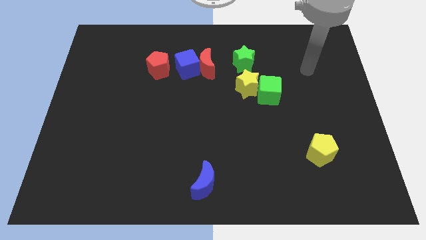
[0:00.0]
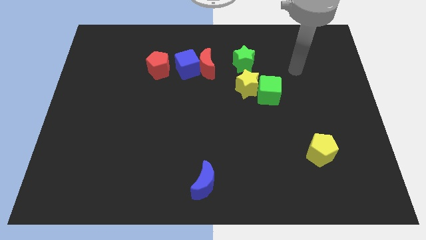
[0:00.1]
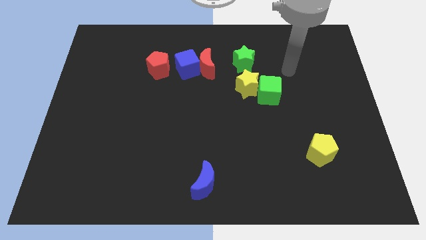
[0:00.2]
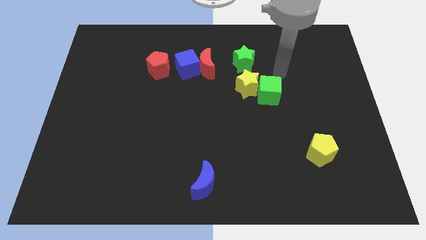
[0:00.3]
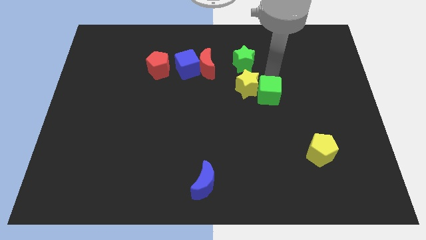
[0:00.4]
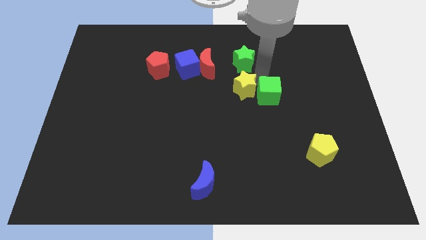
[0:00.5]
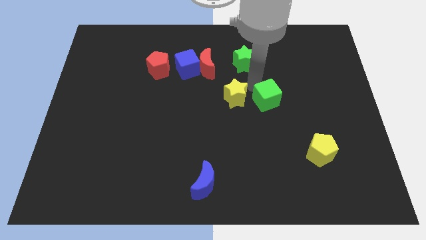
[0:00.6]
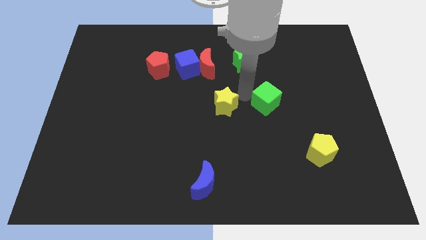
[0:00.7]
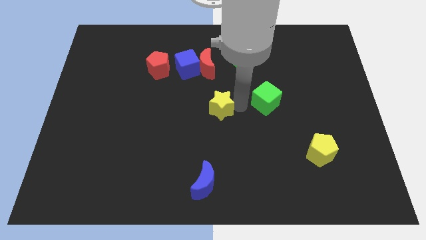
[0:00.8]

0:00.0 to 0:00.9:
pull the green cube apart from the yellow star

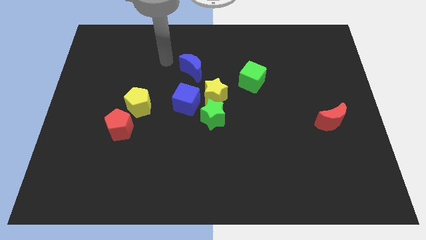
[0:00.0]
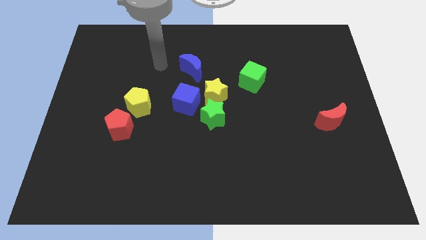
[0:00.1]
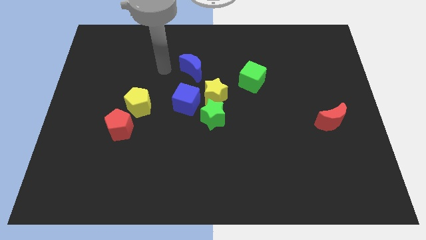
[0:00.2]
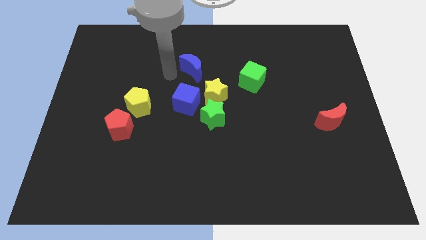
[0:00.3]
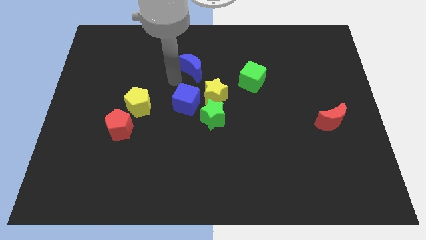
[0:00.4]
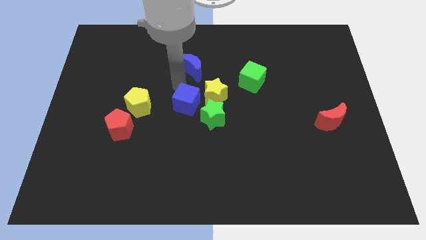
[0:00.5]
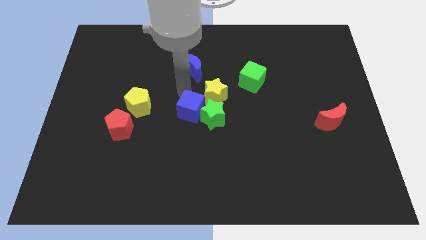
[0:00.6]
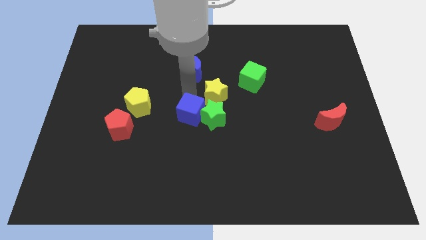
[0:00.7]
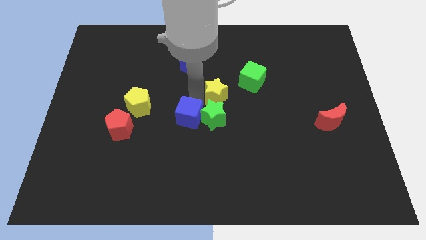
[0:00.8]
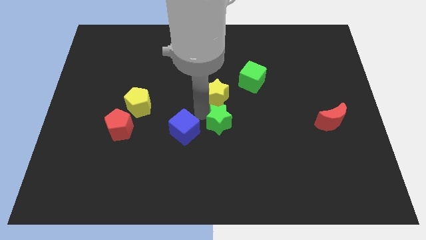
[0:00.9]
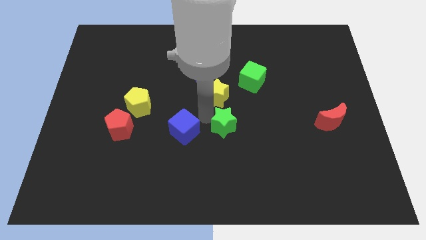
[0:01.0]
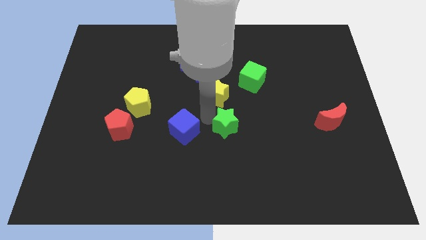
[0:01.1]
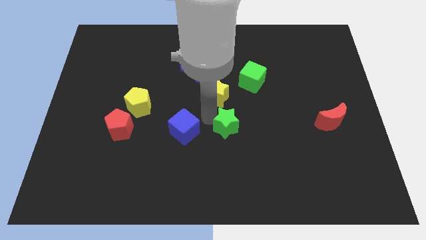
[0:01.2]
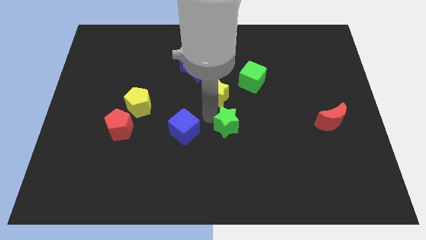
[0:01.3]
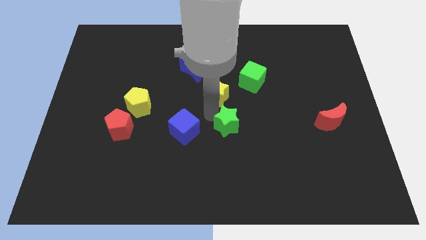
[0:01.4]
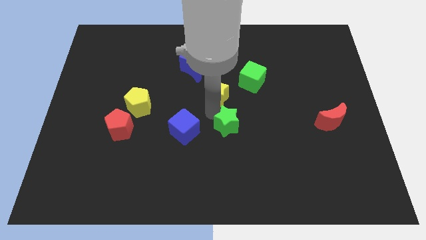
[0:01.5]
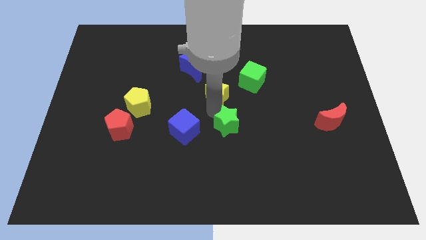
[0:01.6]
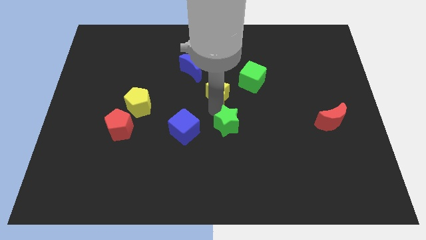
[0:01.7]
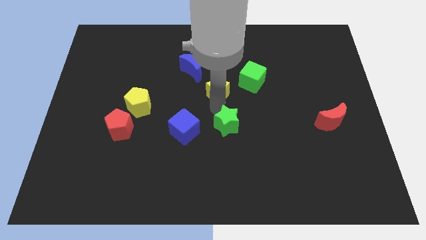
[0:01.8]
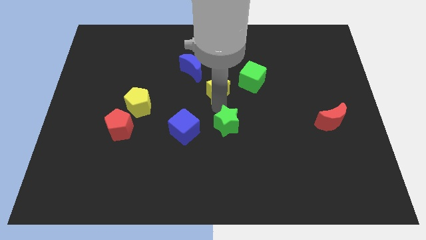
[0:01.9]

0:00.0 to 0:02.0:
move the yellow star away from the green star and blue cube

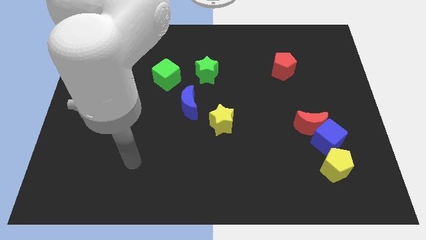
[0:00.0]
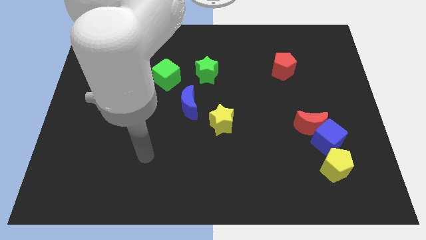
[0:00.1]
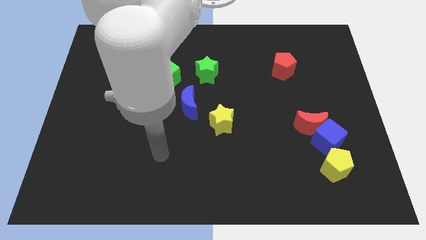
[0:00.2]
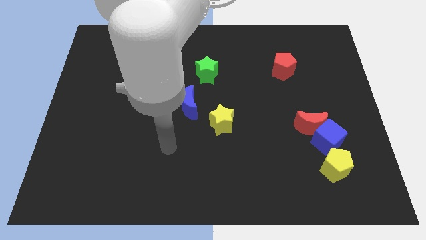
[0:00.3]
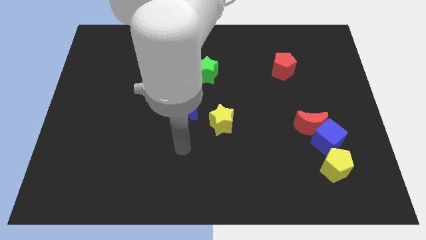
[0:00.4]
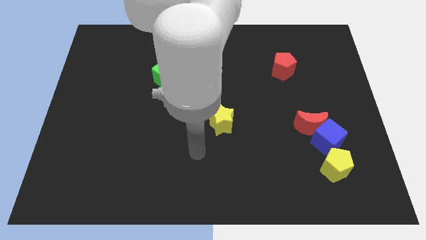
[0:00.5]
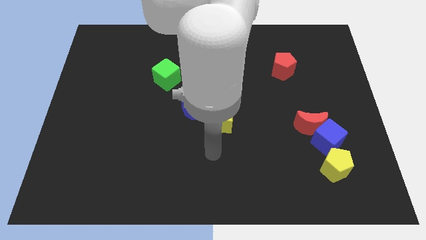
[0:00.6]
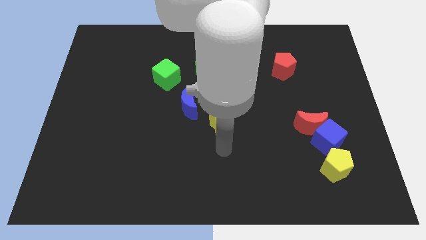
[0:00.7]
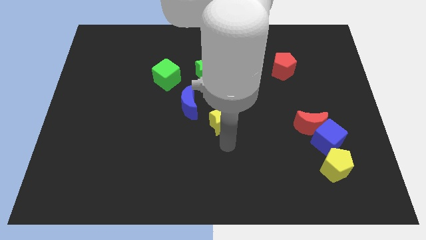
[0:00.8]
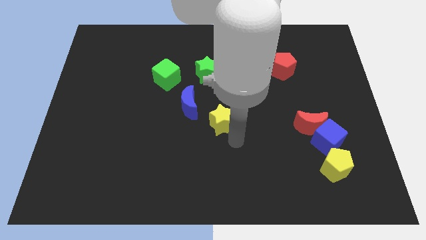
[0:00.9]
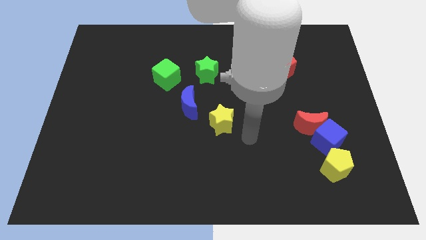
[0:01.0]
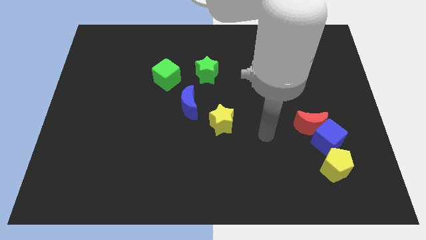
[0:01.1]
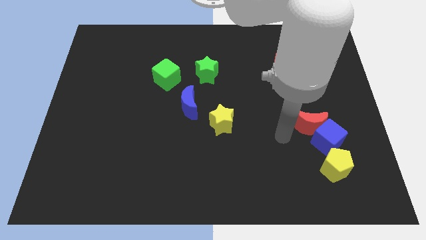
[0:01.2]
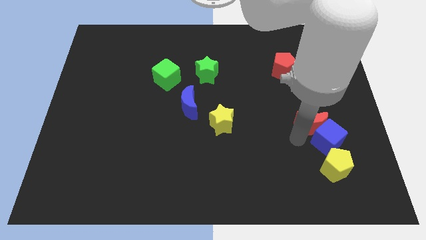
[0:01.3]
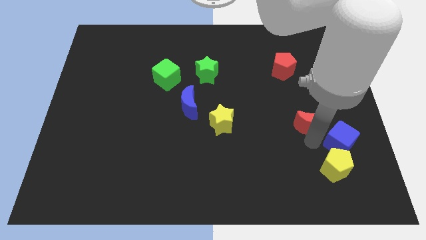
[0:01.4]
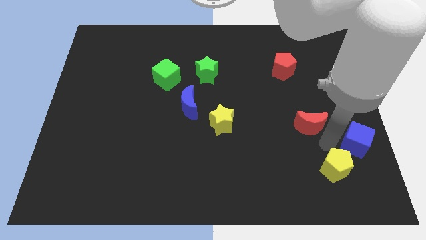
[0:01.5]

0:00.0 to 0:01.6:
separate the red moon from the blue cube

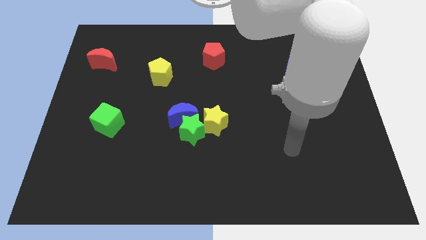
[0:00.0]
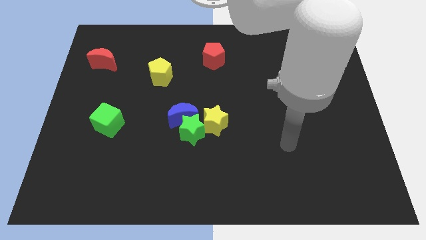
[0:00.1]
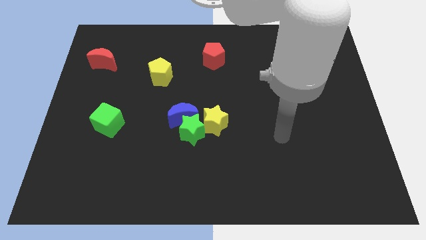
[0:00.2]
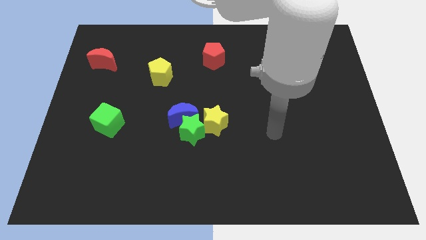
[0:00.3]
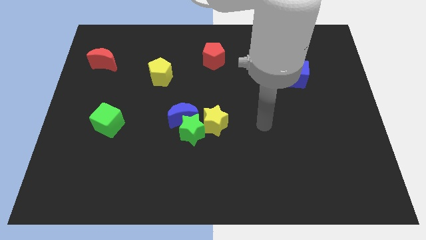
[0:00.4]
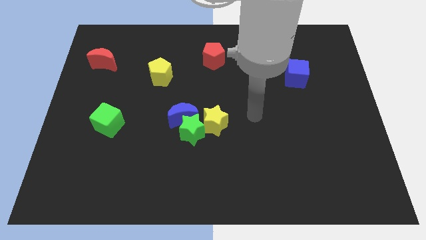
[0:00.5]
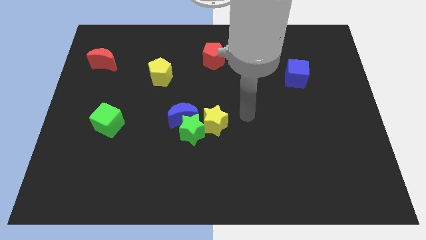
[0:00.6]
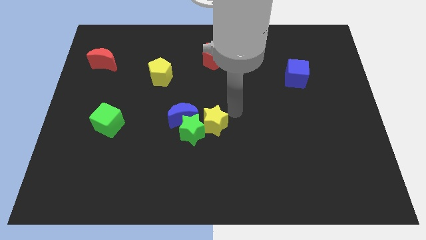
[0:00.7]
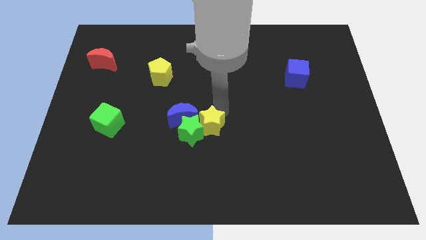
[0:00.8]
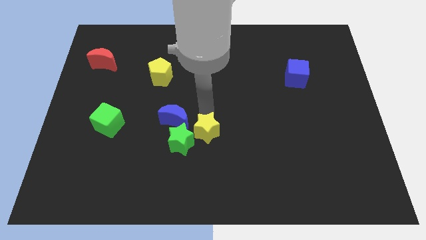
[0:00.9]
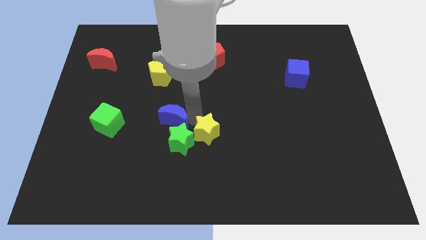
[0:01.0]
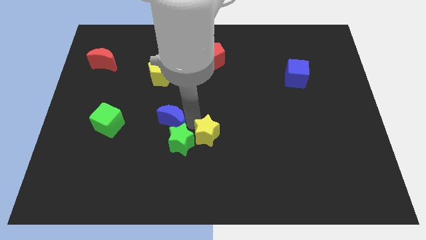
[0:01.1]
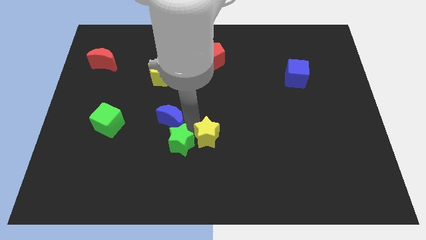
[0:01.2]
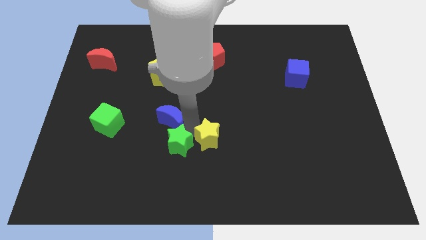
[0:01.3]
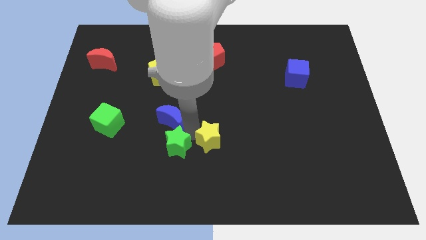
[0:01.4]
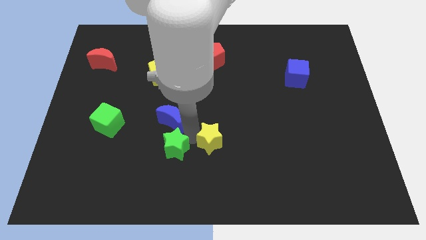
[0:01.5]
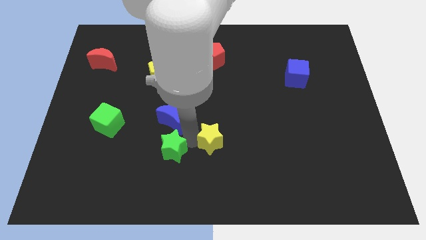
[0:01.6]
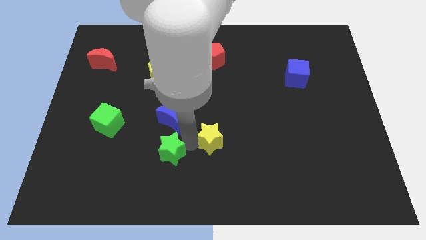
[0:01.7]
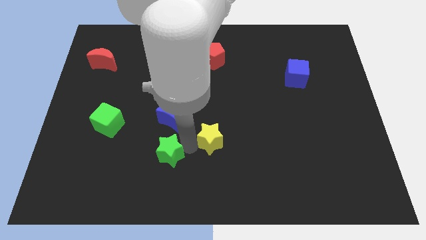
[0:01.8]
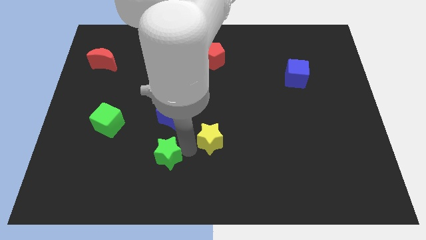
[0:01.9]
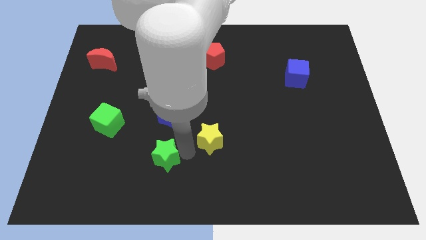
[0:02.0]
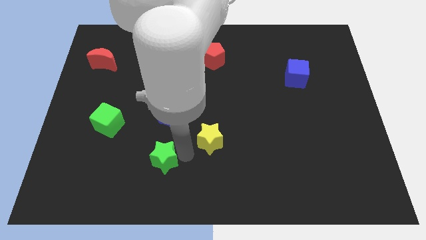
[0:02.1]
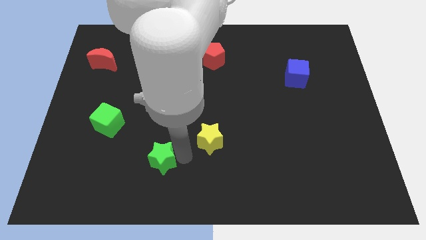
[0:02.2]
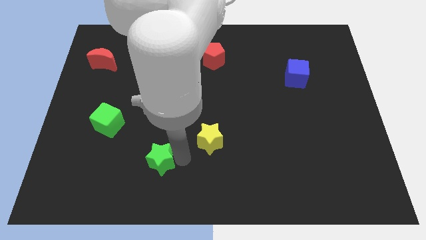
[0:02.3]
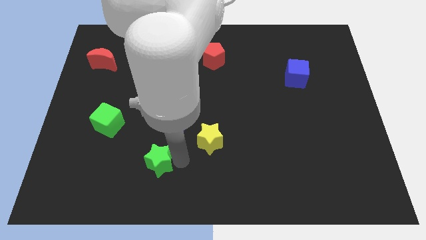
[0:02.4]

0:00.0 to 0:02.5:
pull the green star apart from the blue moon and yellow star

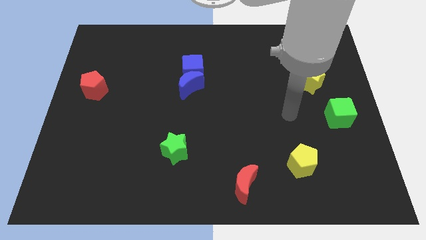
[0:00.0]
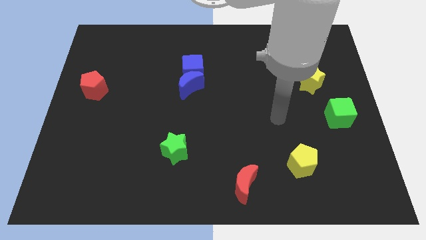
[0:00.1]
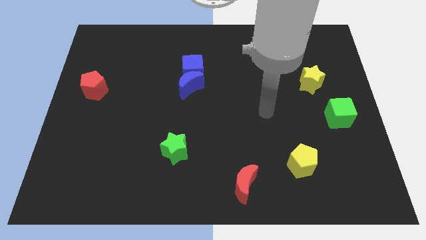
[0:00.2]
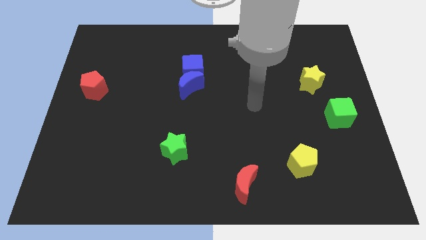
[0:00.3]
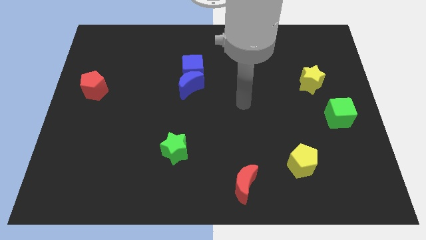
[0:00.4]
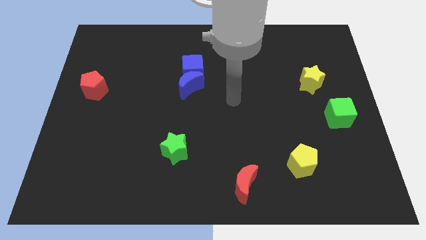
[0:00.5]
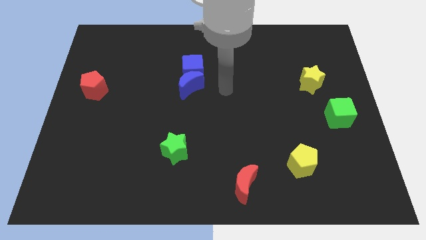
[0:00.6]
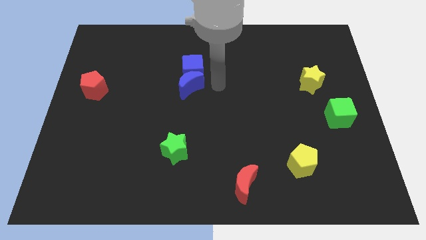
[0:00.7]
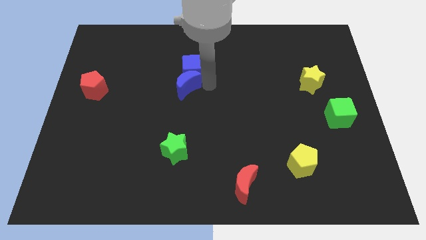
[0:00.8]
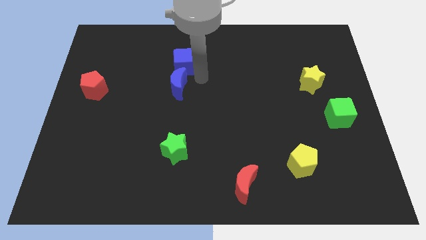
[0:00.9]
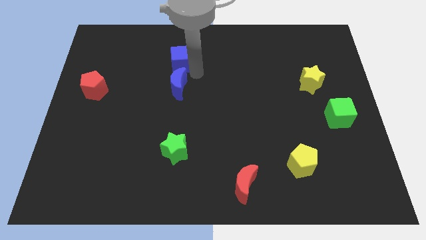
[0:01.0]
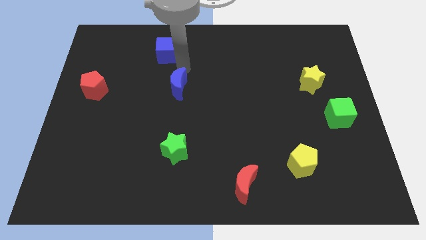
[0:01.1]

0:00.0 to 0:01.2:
pull the blue moon apart from the blue cube

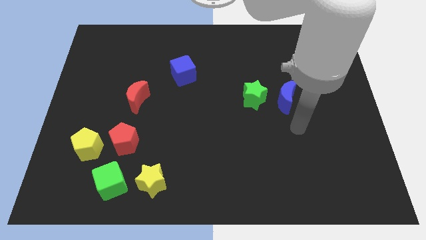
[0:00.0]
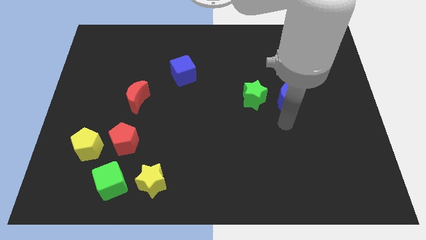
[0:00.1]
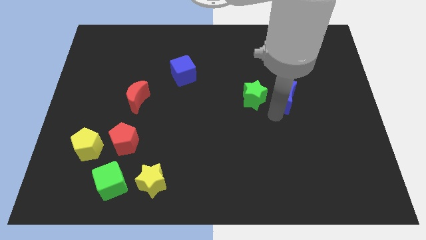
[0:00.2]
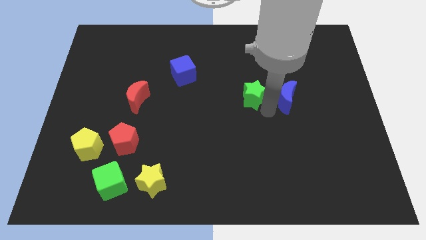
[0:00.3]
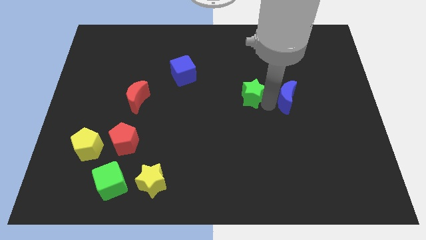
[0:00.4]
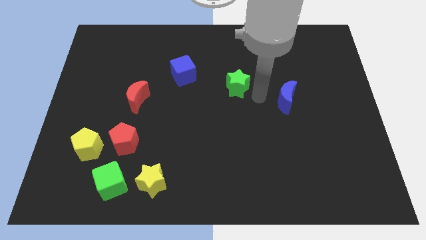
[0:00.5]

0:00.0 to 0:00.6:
separate the blue moon from the green star

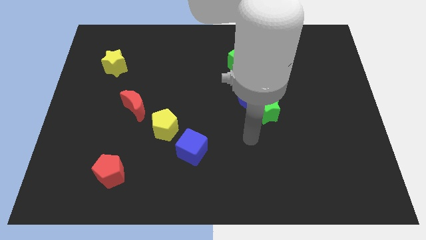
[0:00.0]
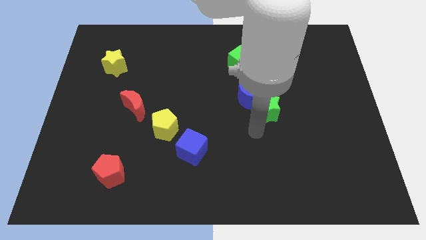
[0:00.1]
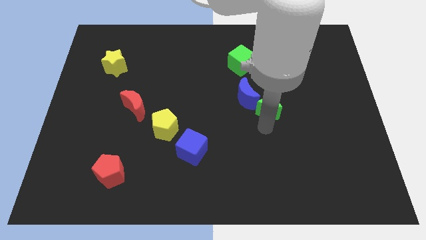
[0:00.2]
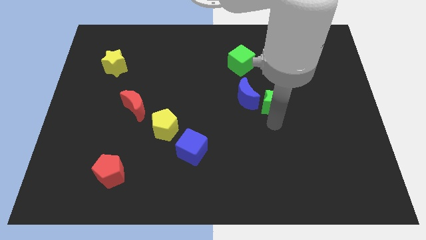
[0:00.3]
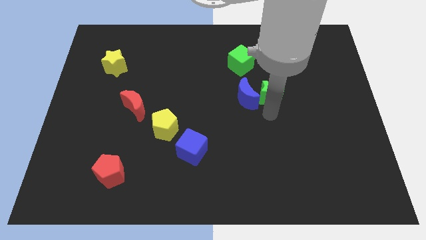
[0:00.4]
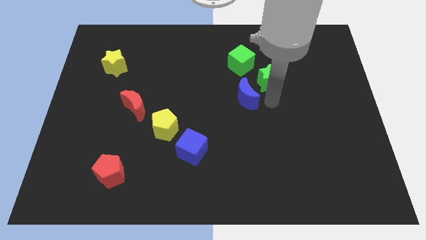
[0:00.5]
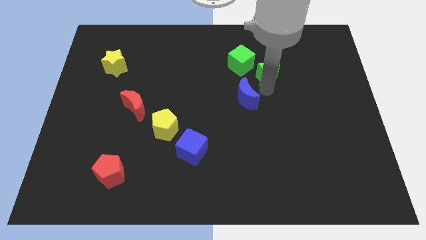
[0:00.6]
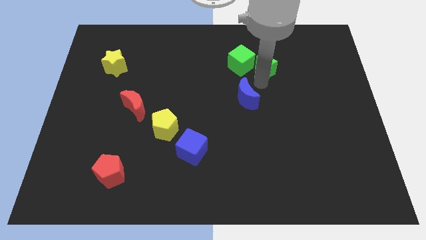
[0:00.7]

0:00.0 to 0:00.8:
pull the blue moon apart from the green star
